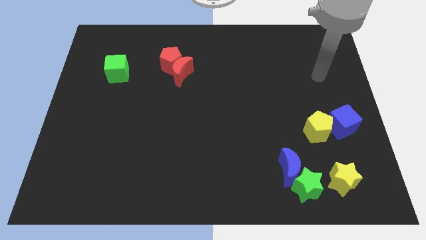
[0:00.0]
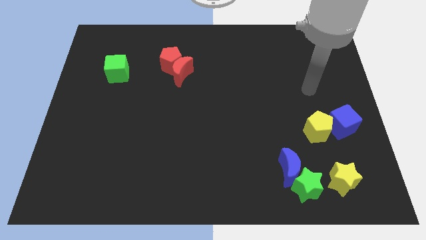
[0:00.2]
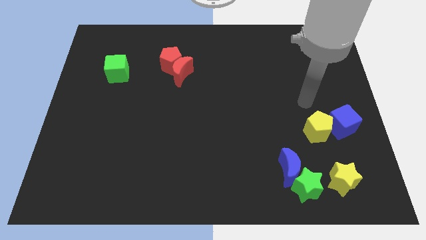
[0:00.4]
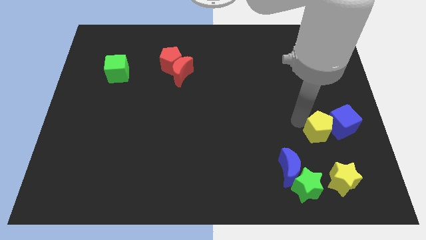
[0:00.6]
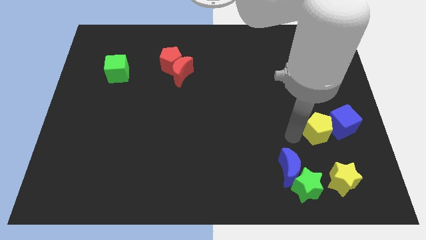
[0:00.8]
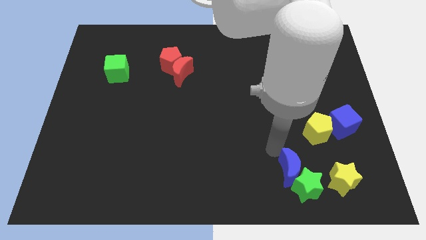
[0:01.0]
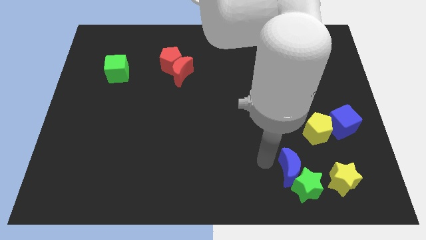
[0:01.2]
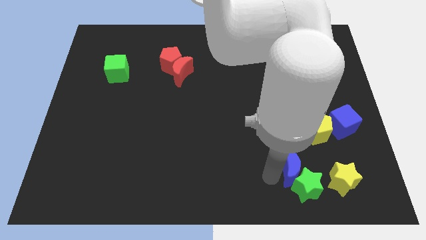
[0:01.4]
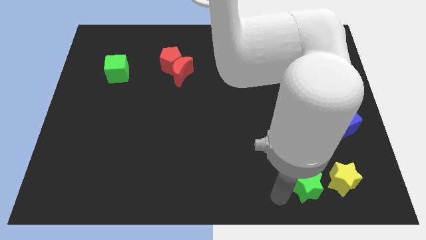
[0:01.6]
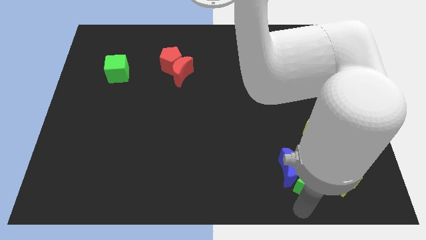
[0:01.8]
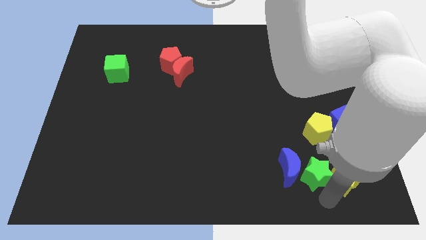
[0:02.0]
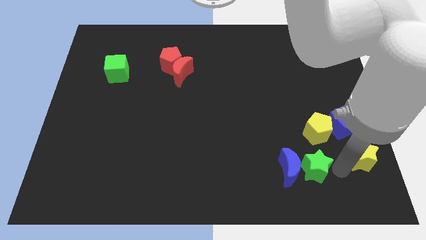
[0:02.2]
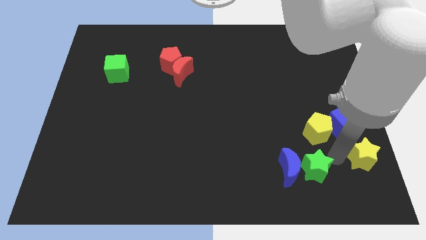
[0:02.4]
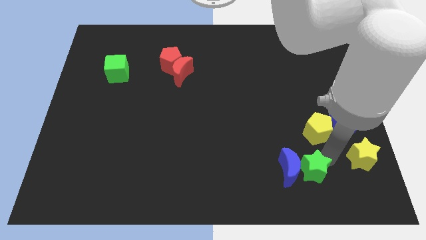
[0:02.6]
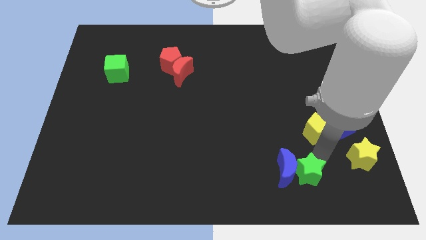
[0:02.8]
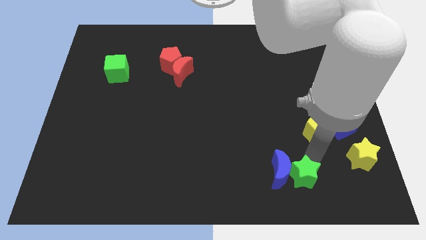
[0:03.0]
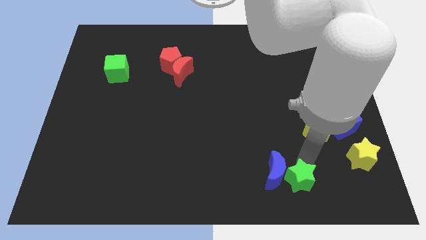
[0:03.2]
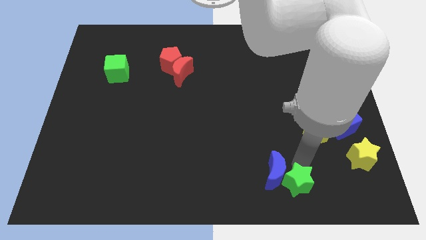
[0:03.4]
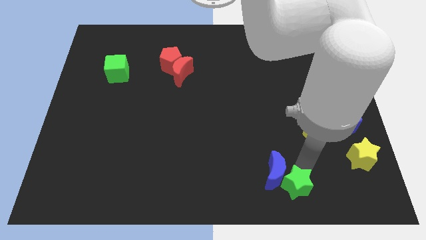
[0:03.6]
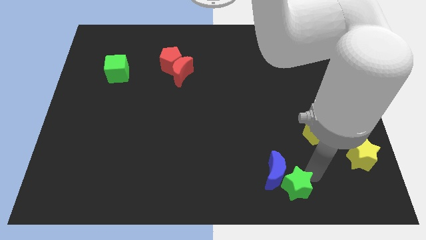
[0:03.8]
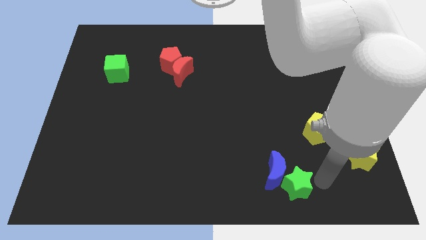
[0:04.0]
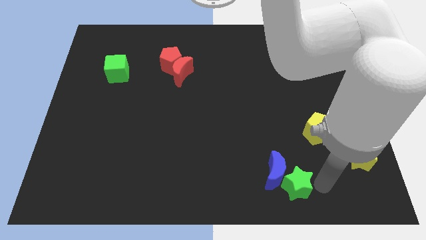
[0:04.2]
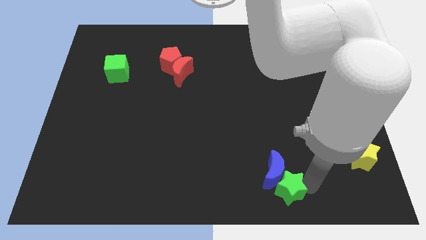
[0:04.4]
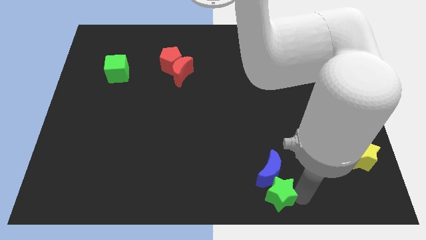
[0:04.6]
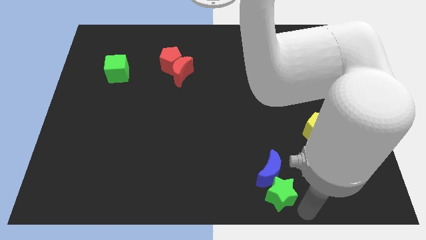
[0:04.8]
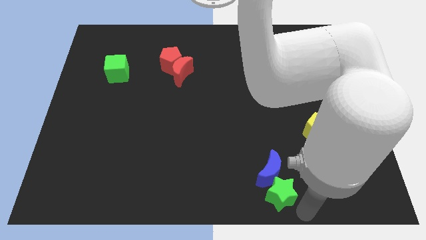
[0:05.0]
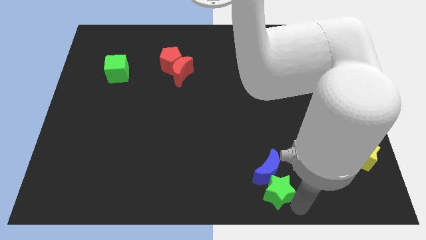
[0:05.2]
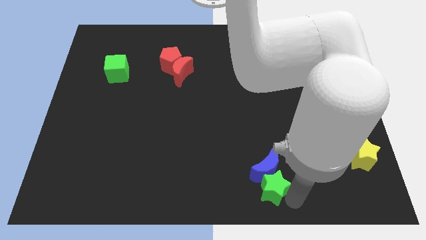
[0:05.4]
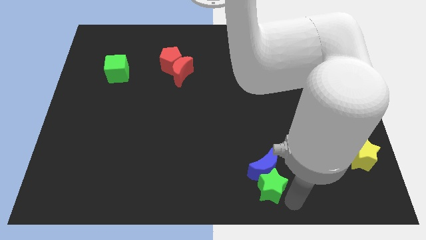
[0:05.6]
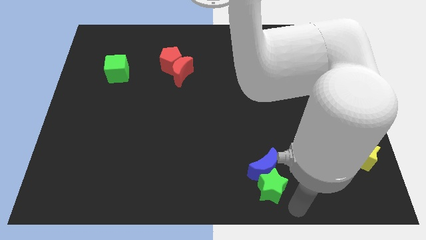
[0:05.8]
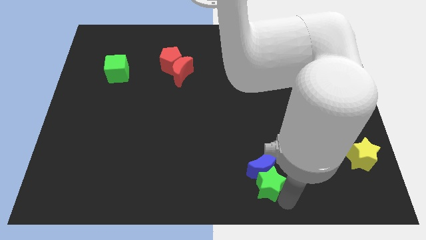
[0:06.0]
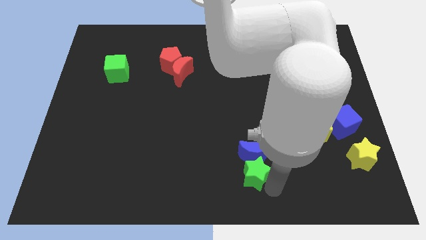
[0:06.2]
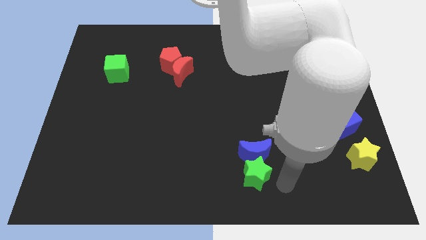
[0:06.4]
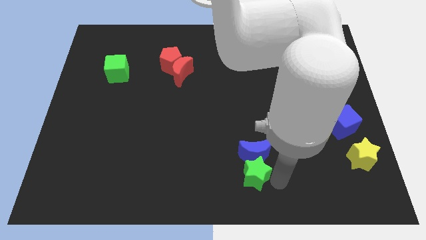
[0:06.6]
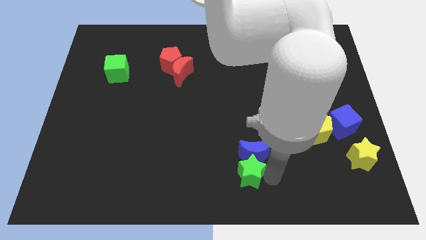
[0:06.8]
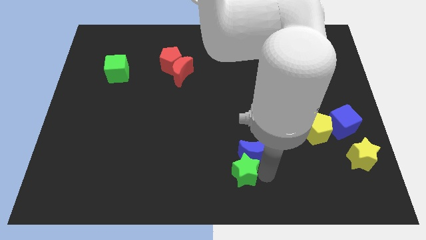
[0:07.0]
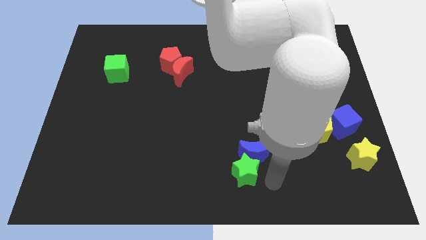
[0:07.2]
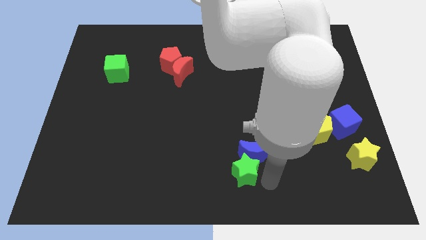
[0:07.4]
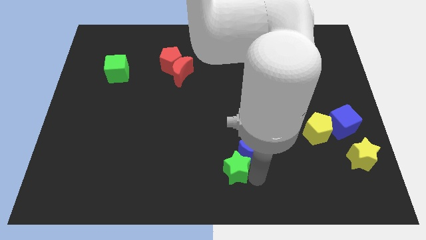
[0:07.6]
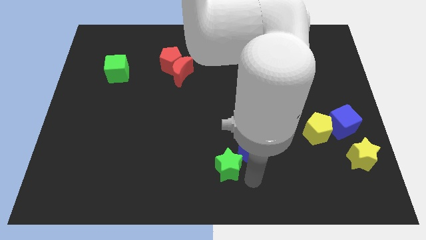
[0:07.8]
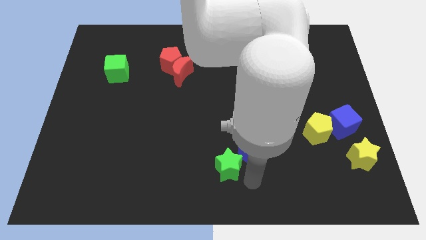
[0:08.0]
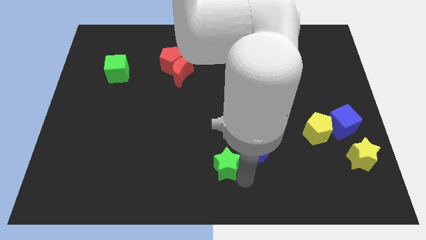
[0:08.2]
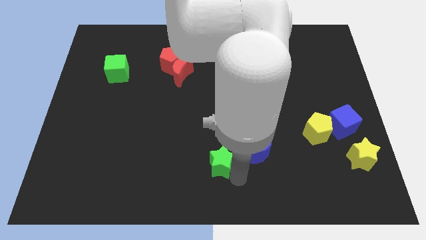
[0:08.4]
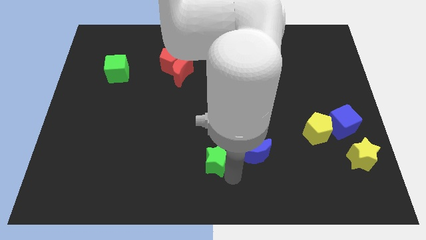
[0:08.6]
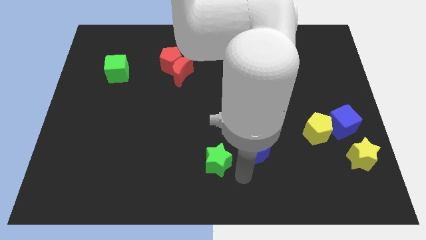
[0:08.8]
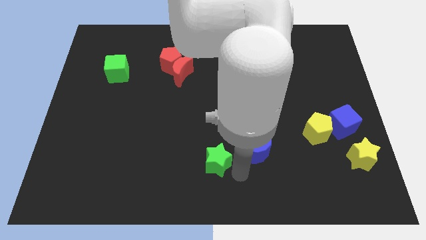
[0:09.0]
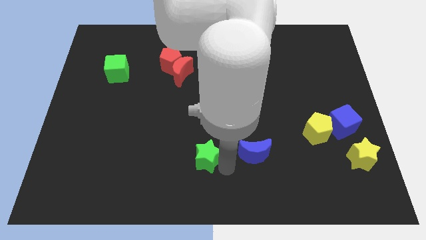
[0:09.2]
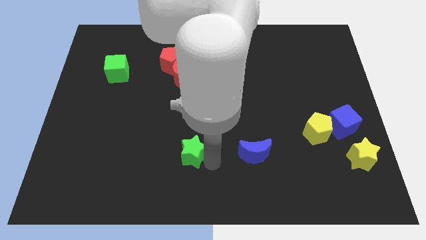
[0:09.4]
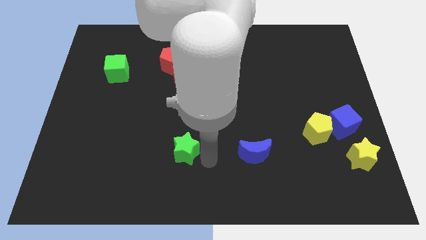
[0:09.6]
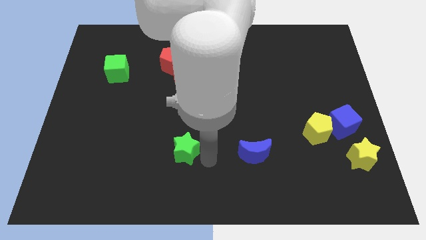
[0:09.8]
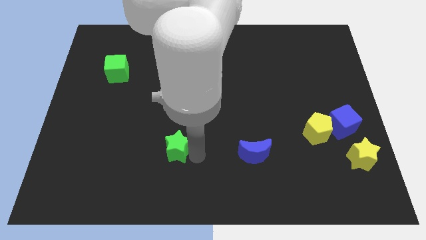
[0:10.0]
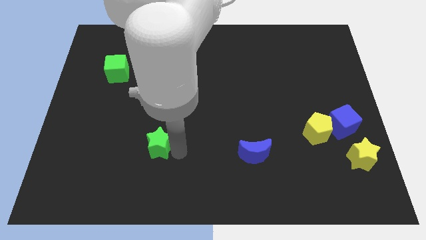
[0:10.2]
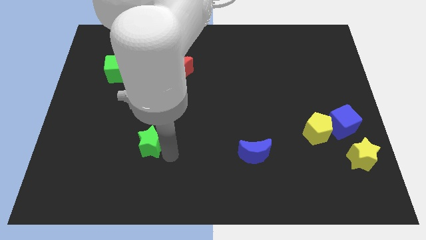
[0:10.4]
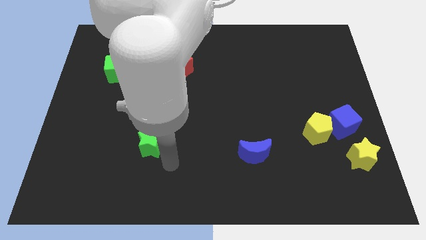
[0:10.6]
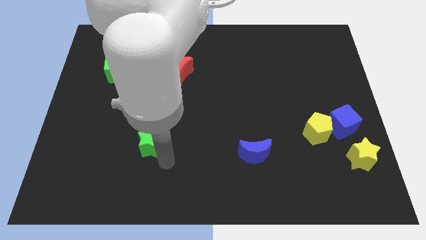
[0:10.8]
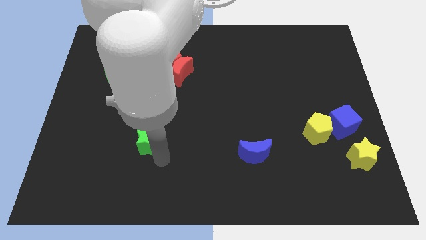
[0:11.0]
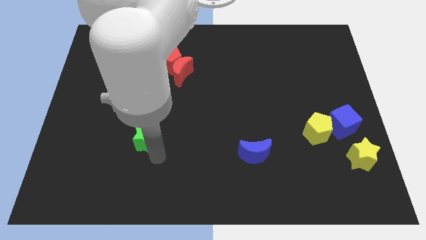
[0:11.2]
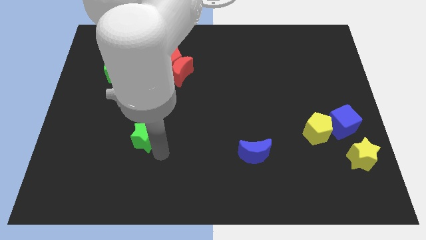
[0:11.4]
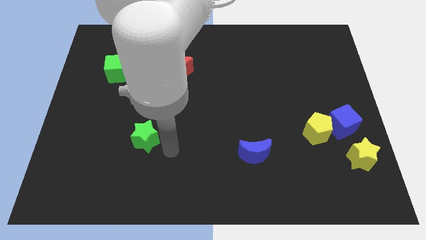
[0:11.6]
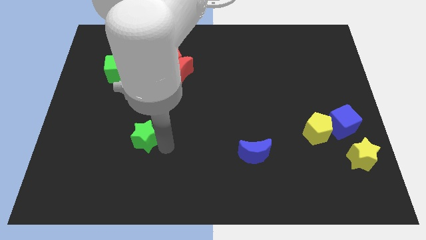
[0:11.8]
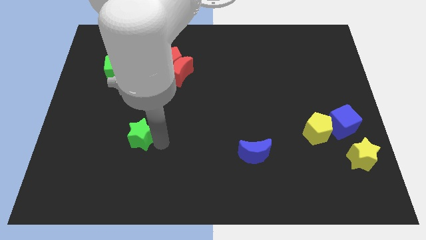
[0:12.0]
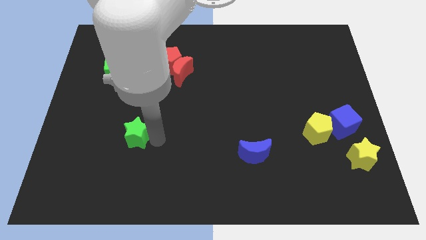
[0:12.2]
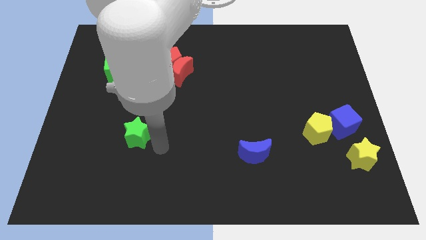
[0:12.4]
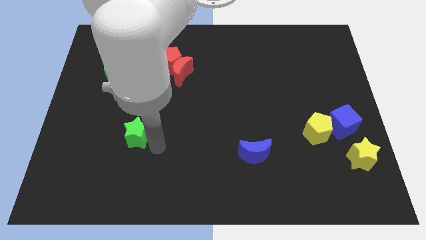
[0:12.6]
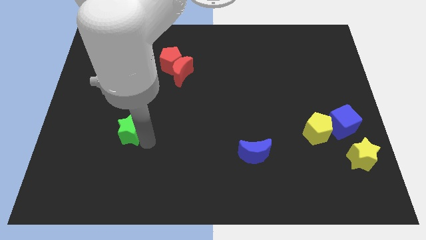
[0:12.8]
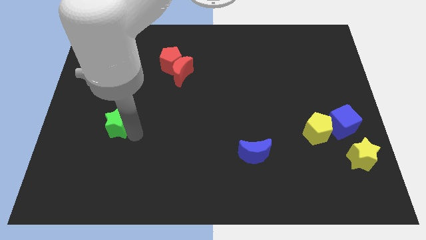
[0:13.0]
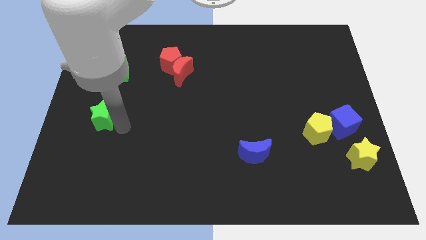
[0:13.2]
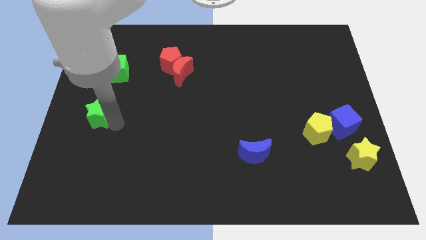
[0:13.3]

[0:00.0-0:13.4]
slide the green star to the center left
